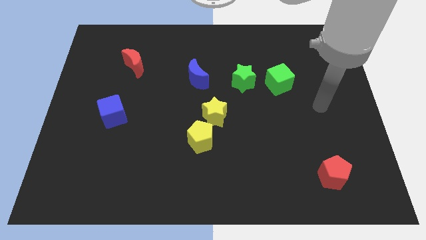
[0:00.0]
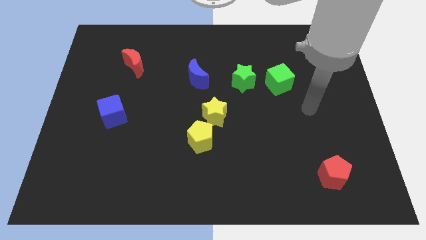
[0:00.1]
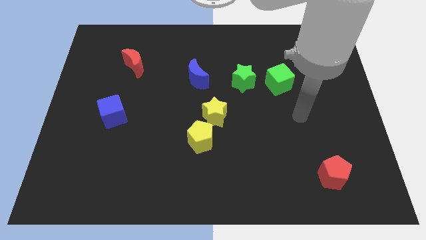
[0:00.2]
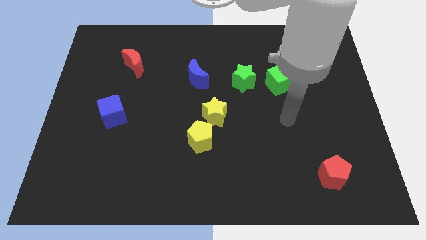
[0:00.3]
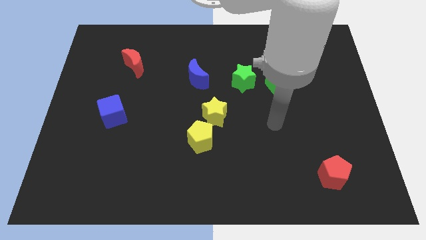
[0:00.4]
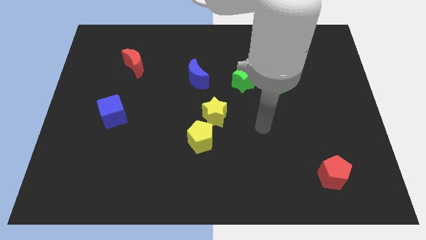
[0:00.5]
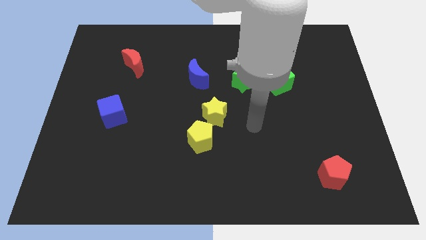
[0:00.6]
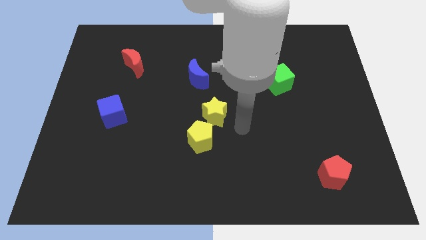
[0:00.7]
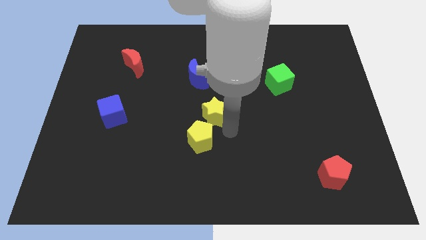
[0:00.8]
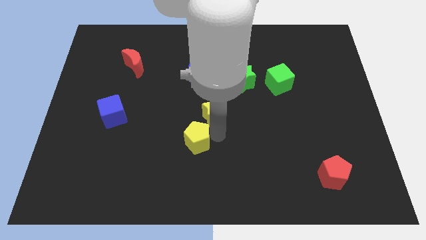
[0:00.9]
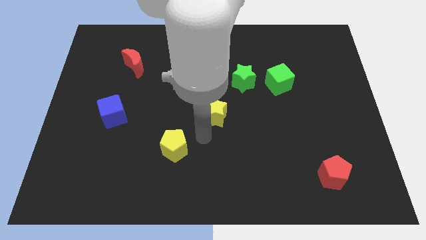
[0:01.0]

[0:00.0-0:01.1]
move the yellow star away from the yellow pentagon

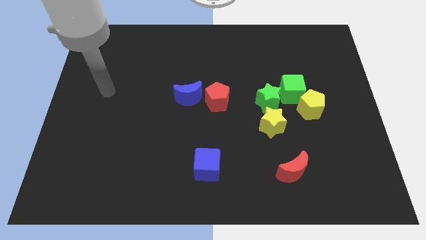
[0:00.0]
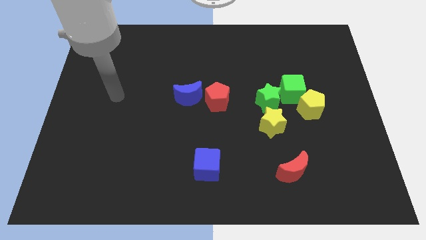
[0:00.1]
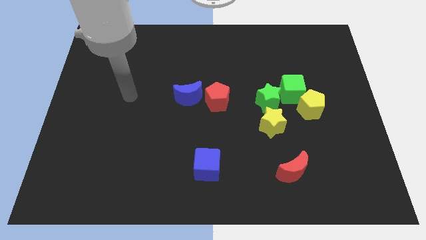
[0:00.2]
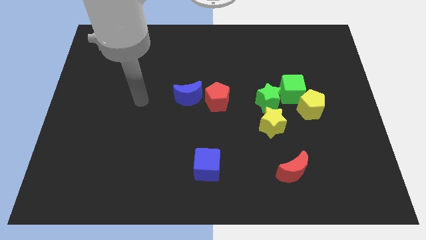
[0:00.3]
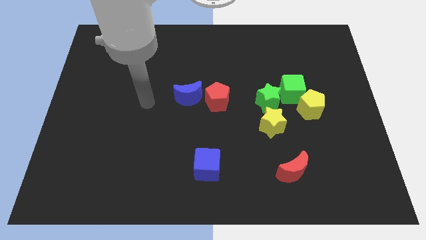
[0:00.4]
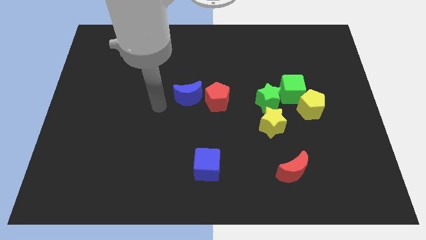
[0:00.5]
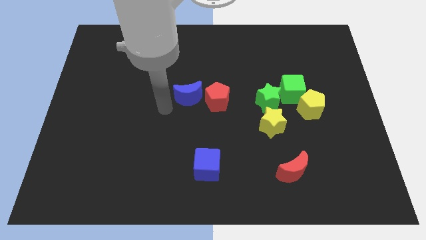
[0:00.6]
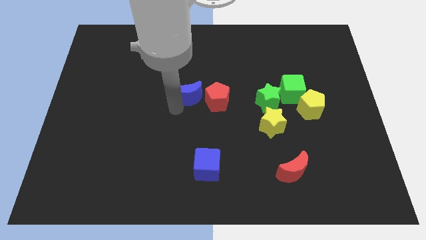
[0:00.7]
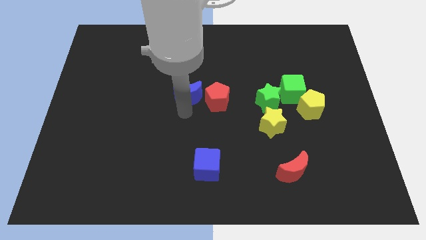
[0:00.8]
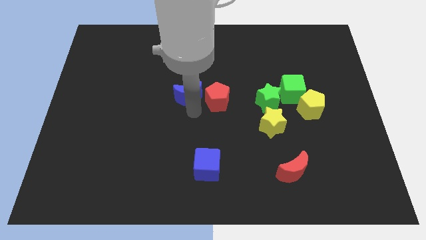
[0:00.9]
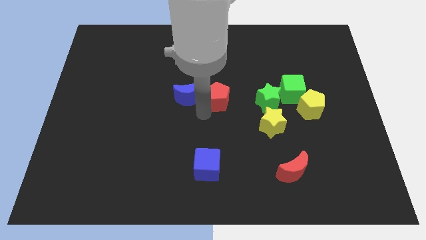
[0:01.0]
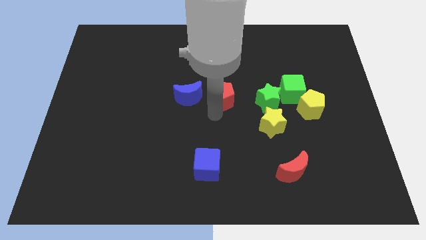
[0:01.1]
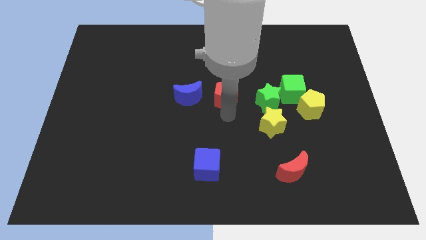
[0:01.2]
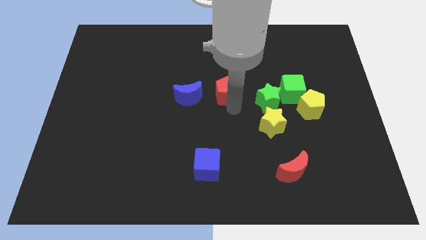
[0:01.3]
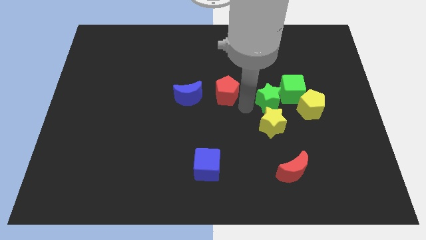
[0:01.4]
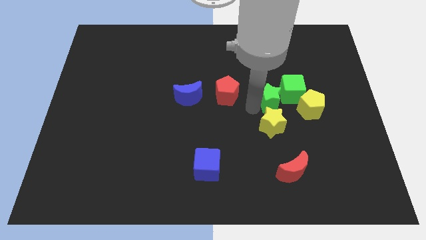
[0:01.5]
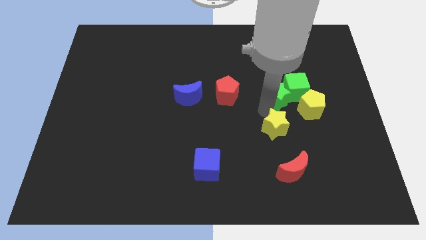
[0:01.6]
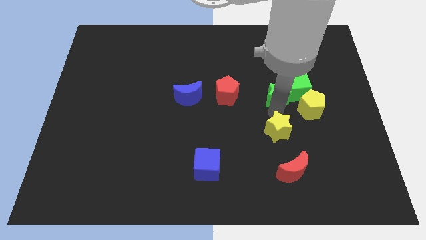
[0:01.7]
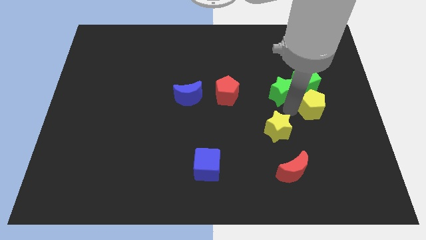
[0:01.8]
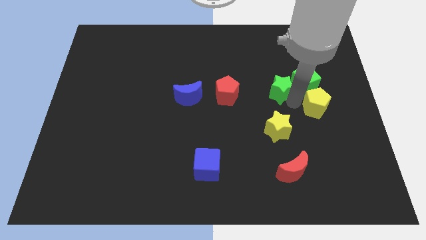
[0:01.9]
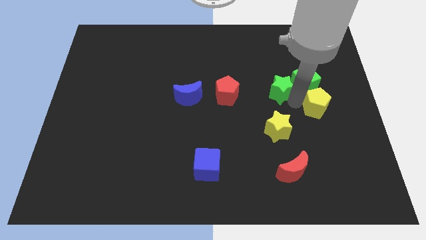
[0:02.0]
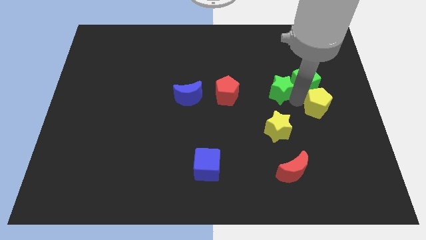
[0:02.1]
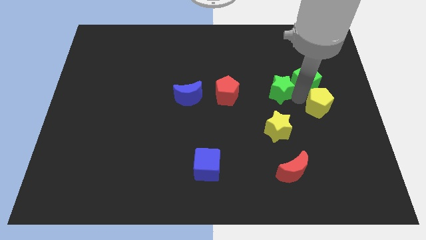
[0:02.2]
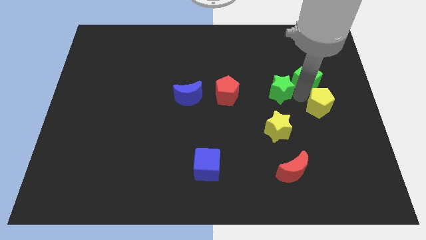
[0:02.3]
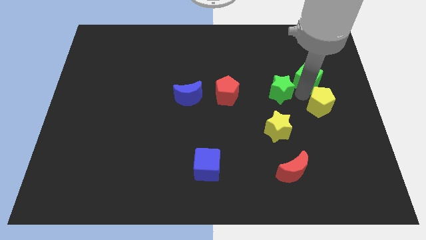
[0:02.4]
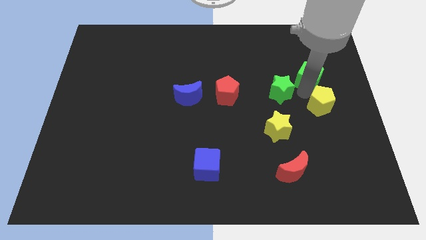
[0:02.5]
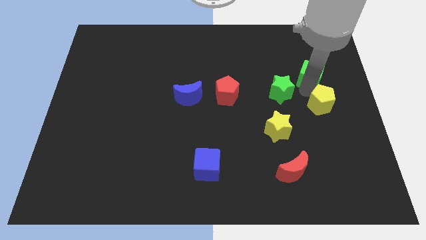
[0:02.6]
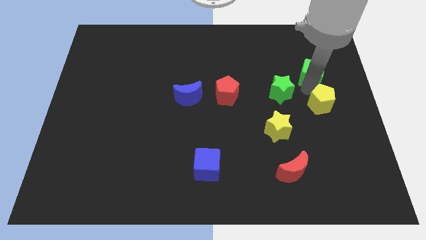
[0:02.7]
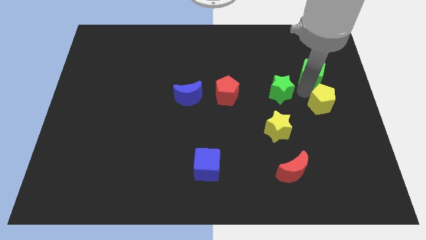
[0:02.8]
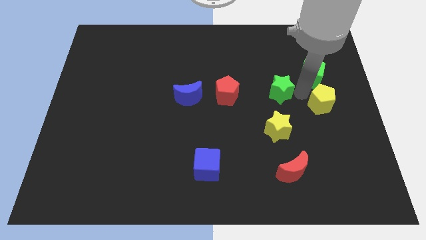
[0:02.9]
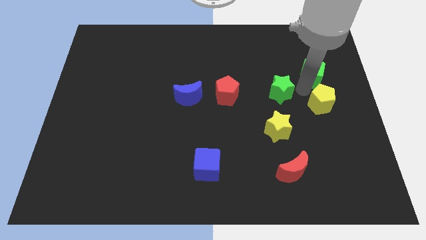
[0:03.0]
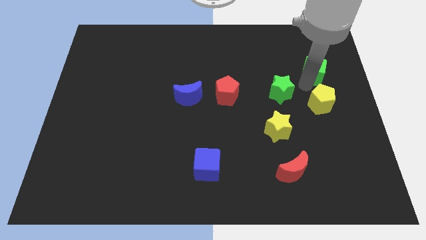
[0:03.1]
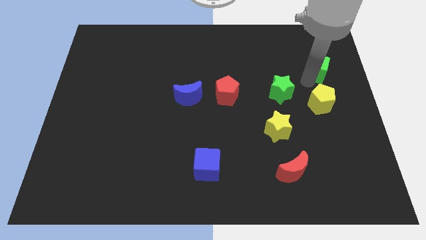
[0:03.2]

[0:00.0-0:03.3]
pull the green cube apart from the yellow pentagon and green star

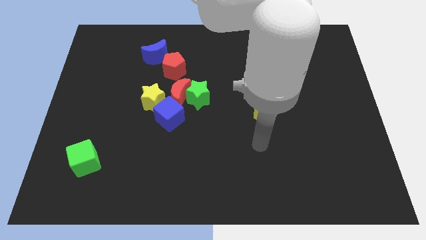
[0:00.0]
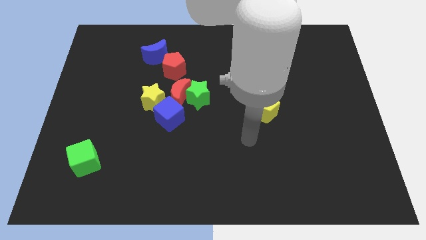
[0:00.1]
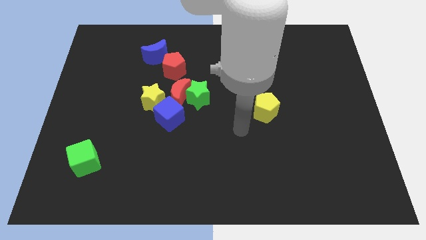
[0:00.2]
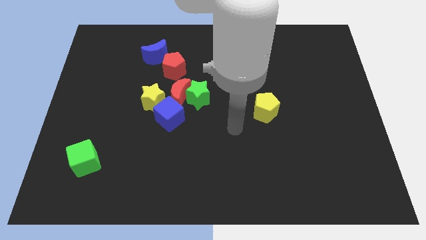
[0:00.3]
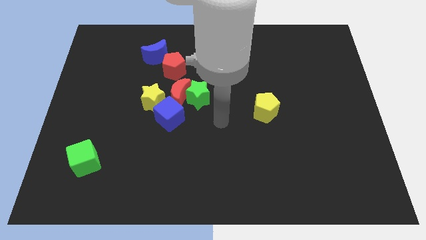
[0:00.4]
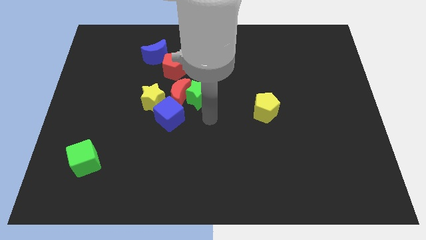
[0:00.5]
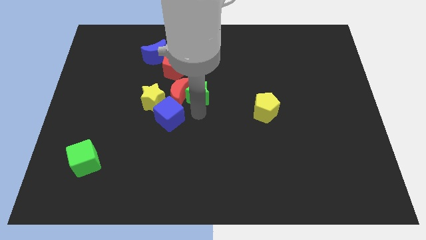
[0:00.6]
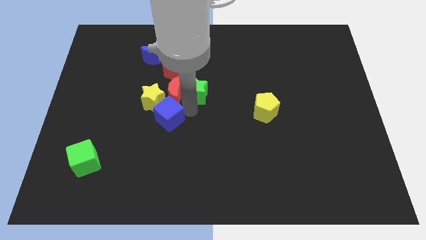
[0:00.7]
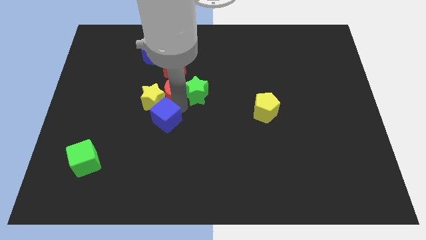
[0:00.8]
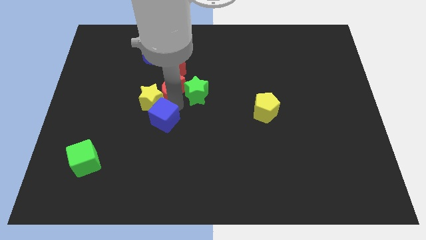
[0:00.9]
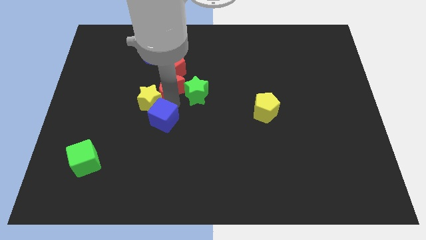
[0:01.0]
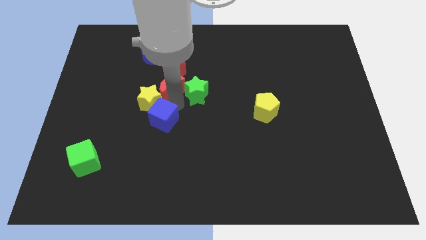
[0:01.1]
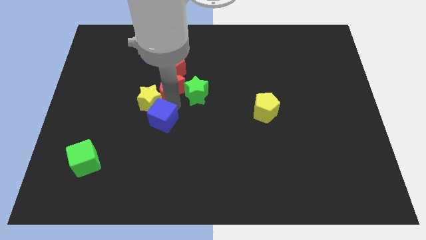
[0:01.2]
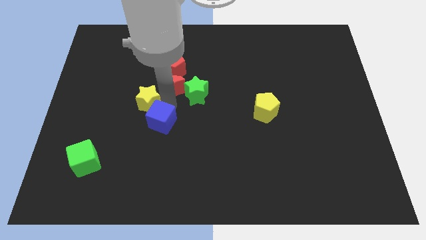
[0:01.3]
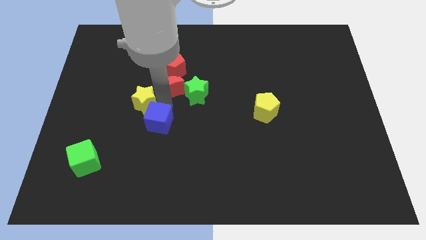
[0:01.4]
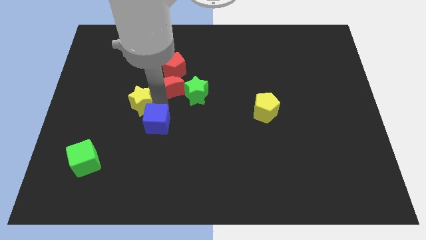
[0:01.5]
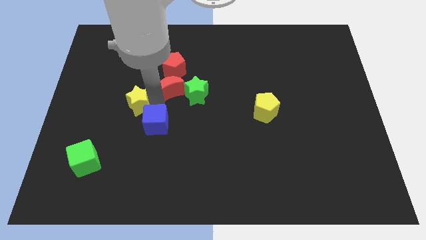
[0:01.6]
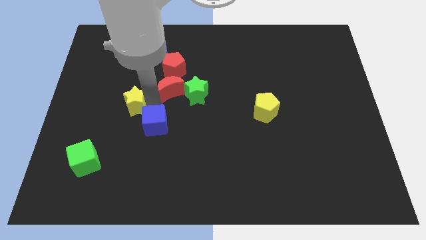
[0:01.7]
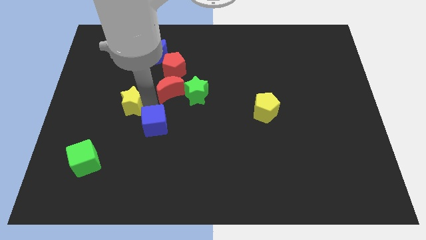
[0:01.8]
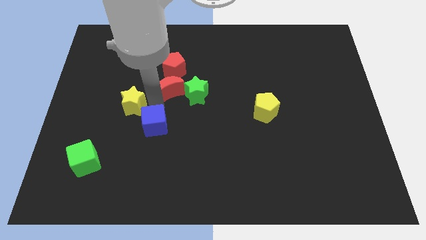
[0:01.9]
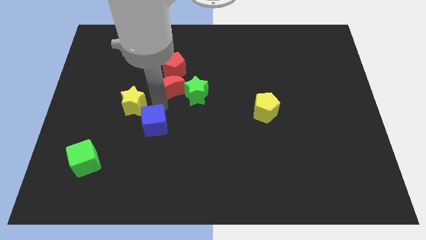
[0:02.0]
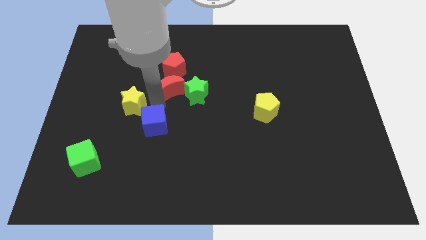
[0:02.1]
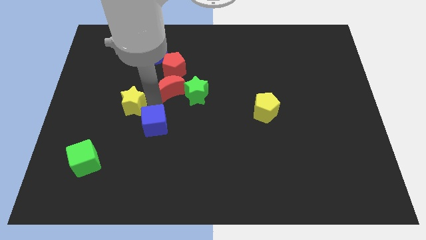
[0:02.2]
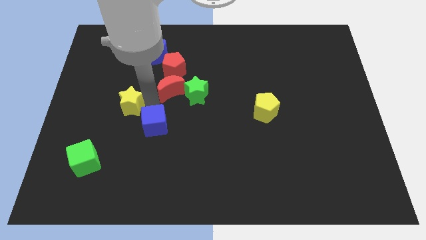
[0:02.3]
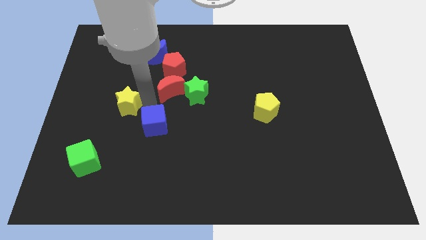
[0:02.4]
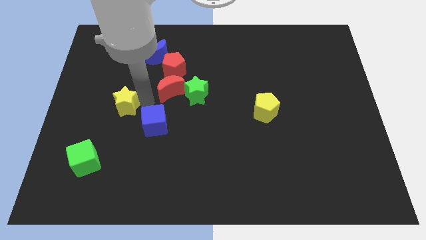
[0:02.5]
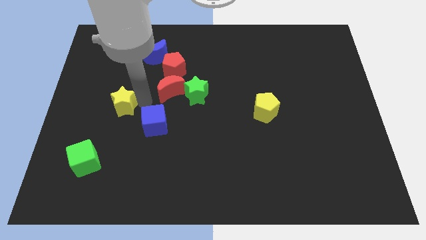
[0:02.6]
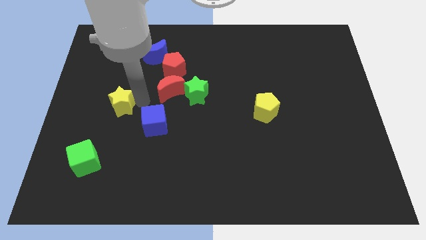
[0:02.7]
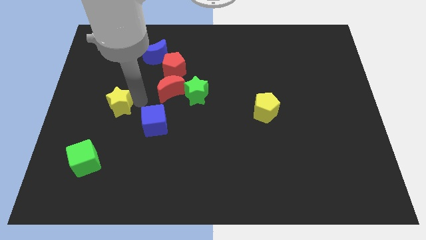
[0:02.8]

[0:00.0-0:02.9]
separate the yellow star from the blue cube and red moon

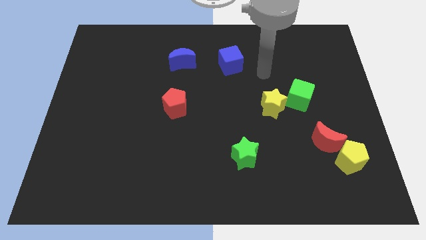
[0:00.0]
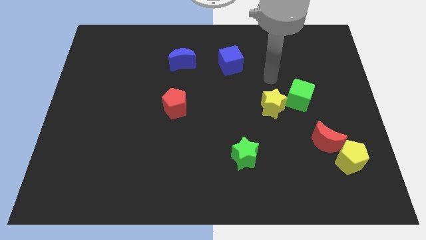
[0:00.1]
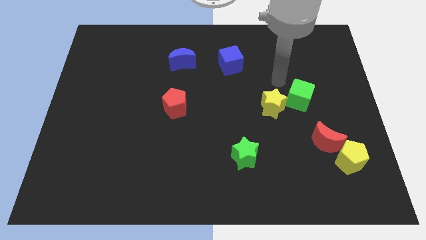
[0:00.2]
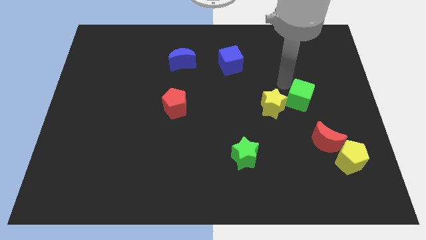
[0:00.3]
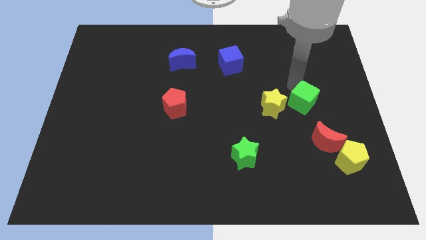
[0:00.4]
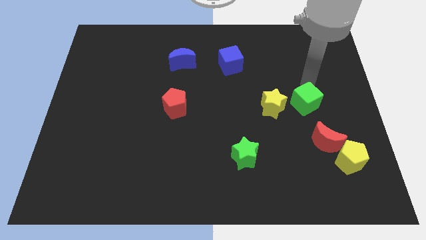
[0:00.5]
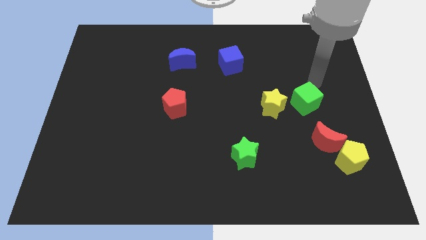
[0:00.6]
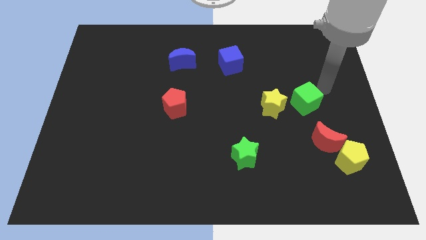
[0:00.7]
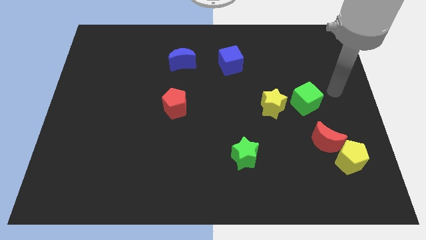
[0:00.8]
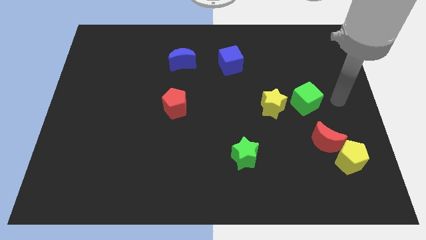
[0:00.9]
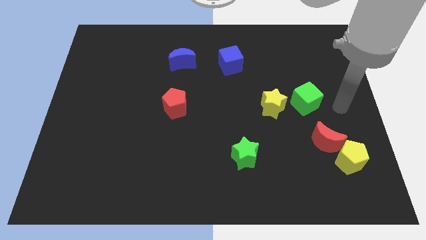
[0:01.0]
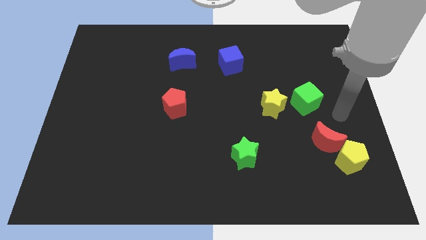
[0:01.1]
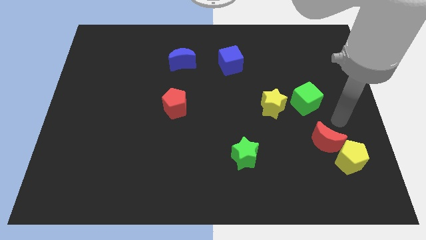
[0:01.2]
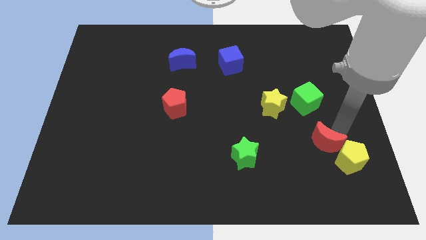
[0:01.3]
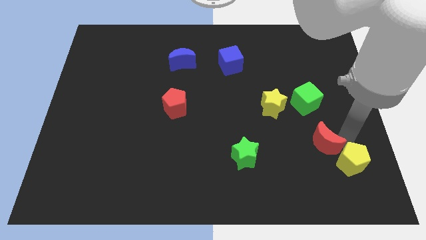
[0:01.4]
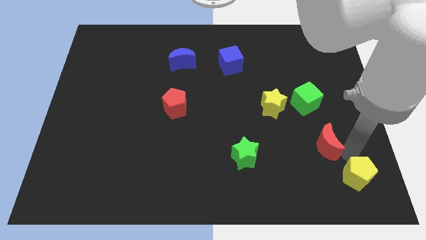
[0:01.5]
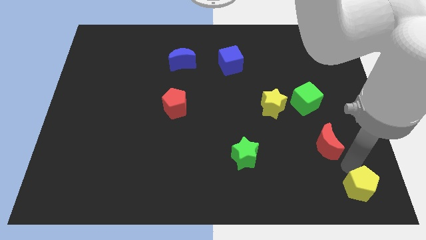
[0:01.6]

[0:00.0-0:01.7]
pull the red moon apart from the yellow pentagon

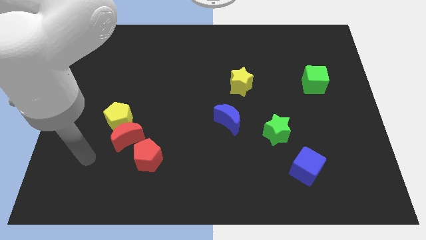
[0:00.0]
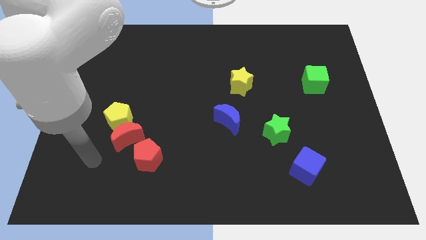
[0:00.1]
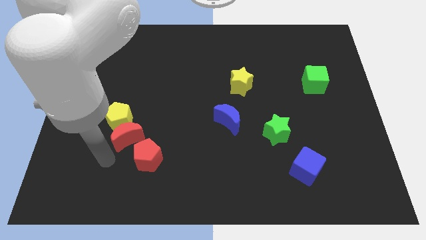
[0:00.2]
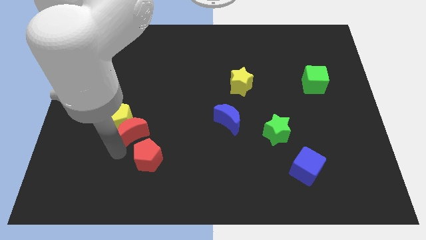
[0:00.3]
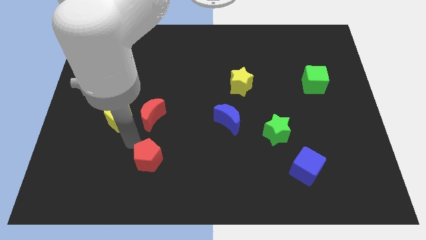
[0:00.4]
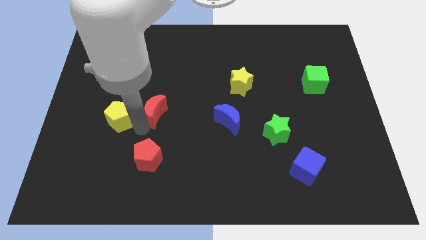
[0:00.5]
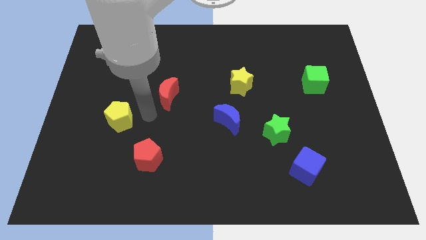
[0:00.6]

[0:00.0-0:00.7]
pull the yellow pentagon apart from the red moon
